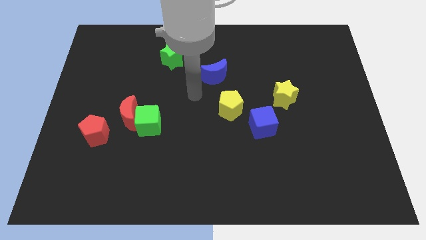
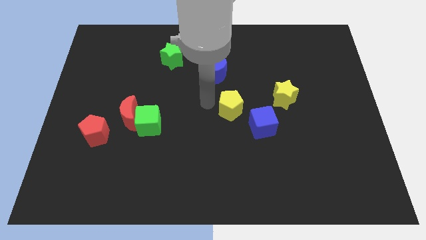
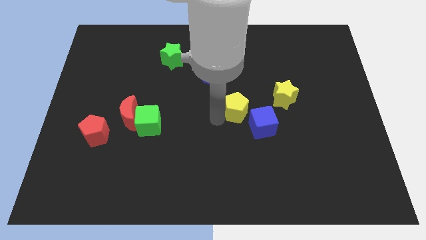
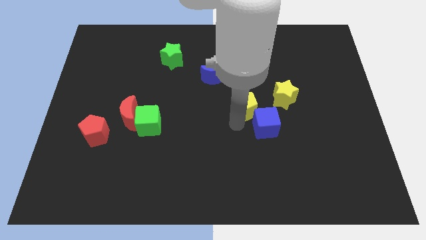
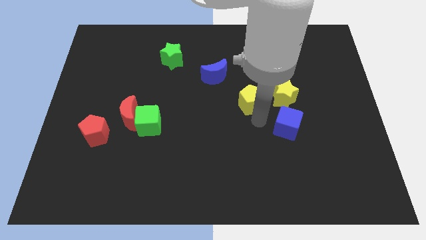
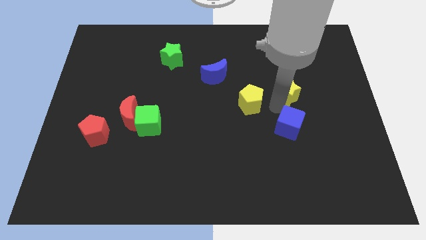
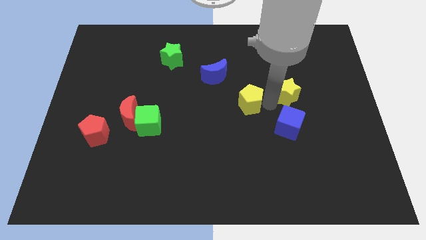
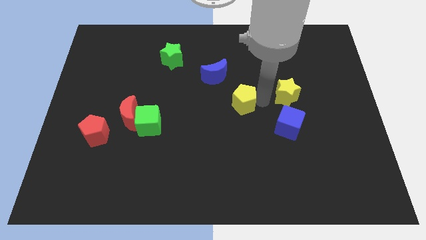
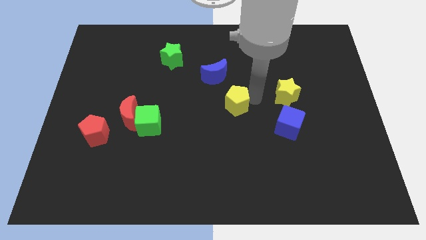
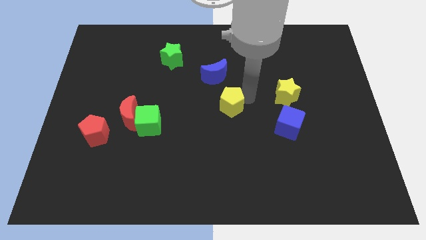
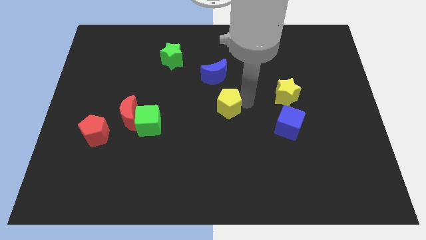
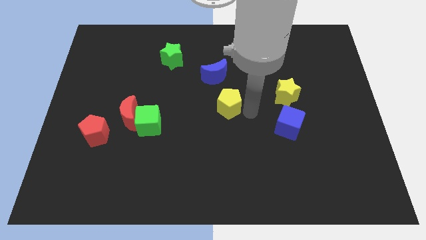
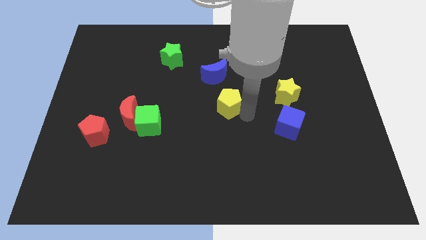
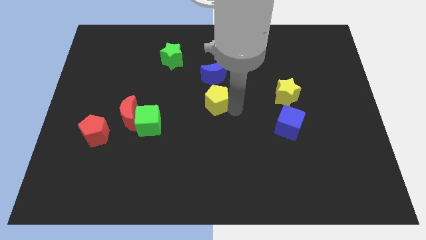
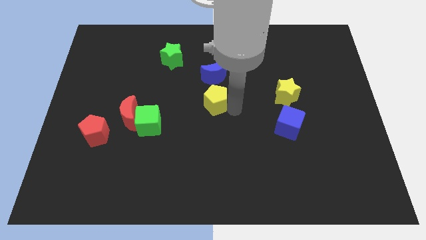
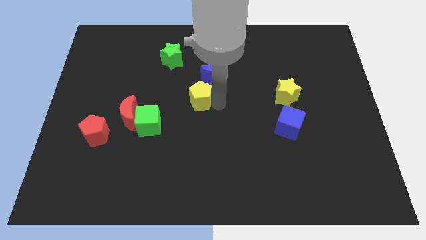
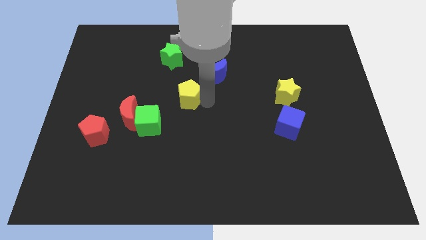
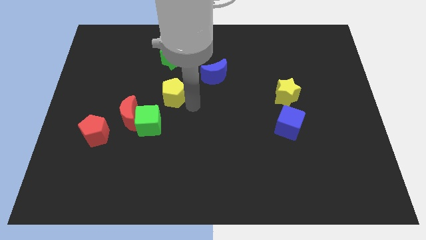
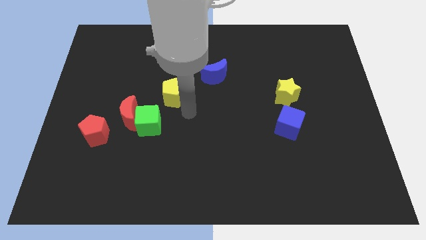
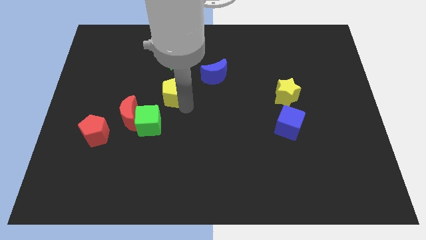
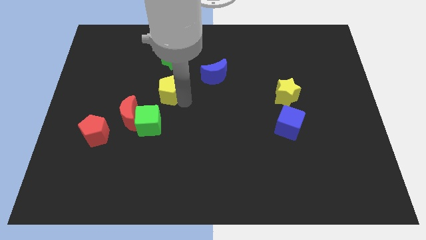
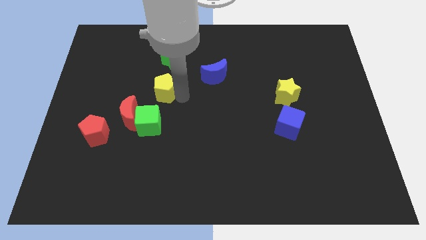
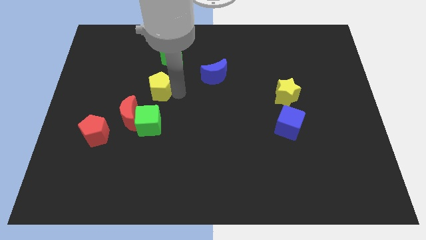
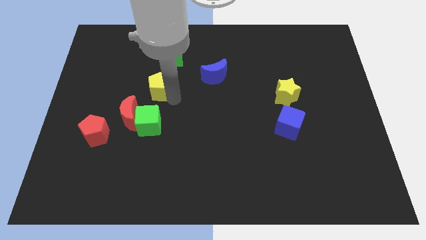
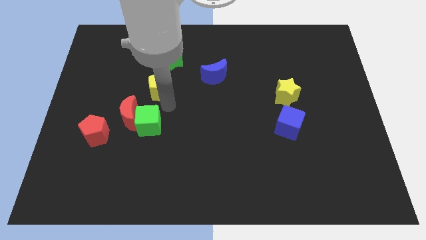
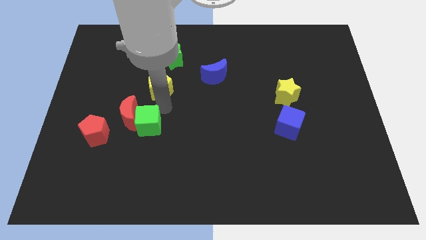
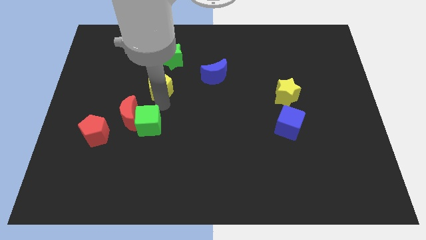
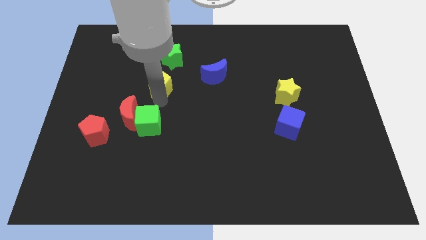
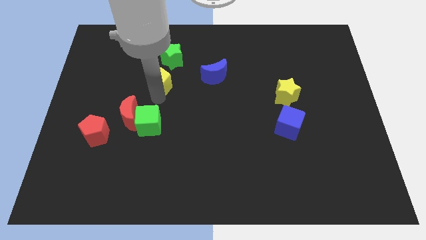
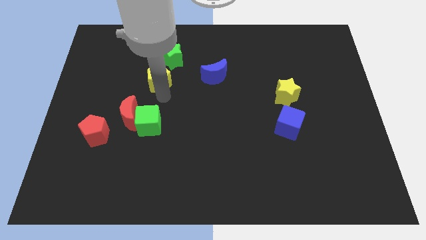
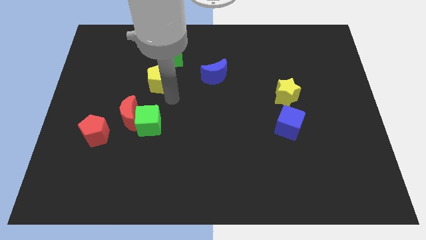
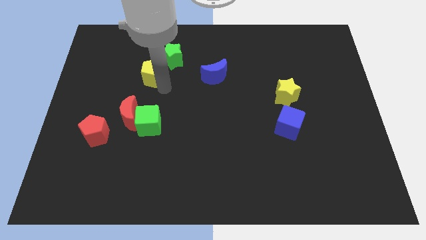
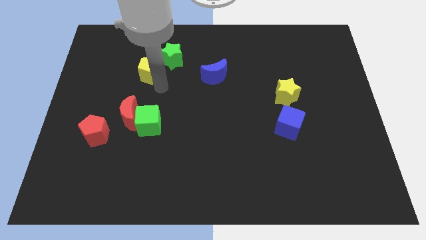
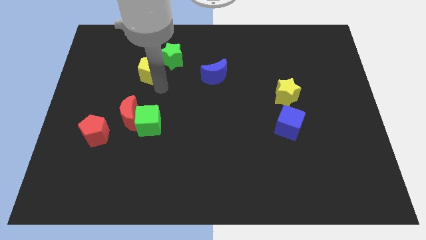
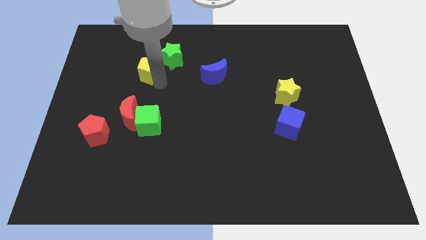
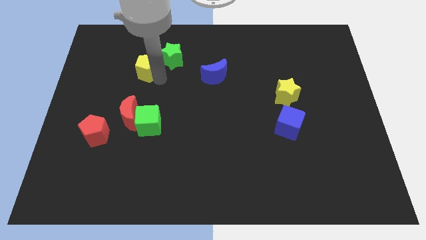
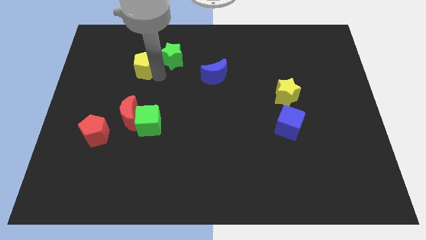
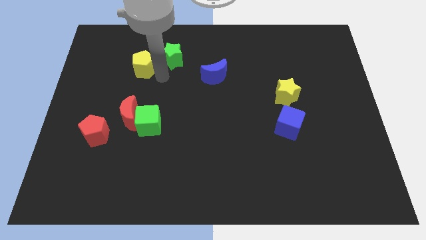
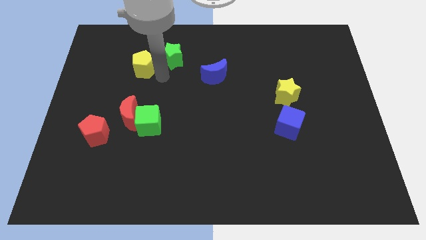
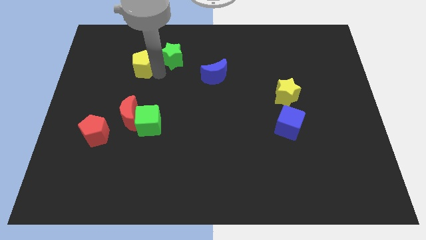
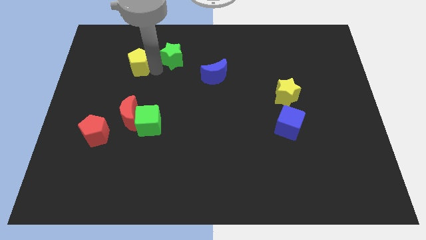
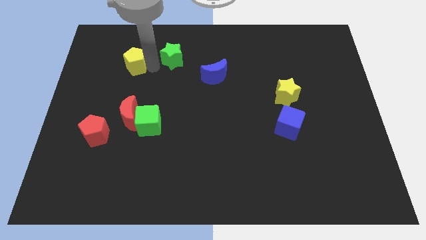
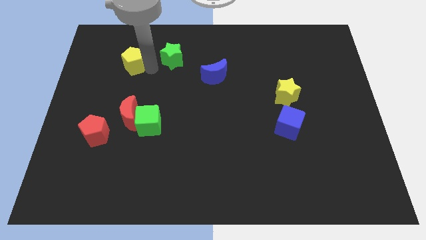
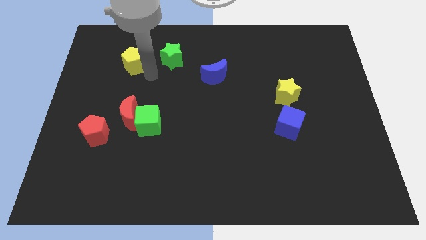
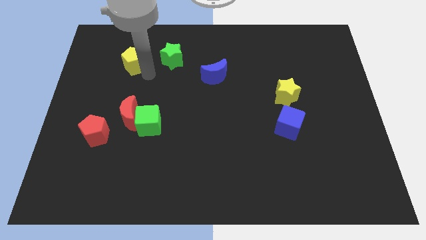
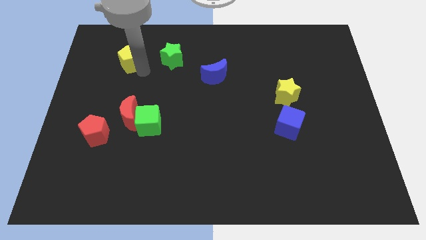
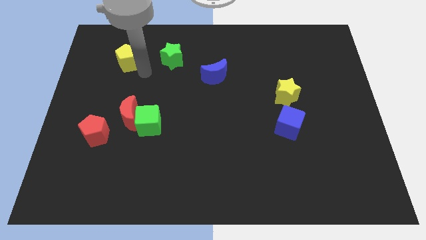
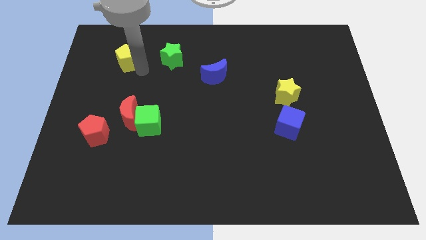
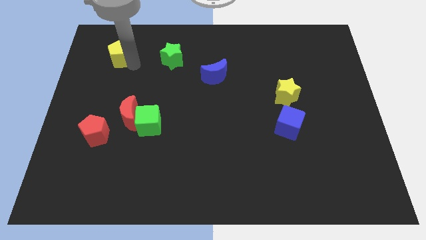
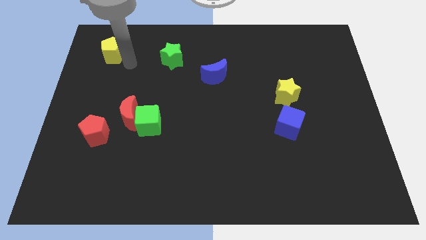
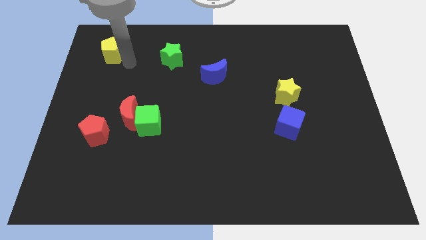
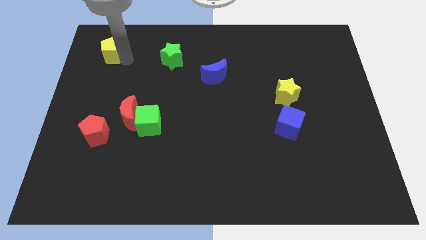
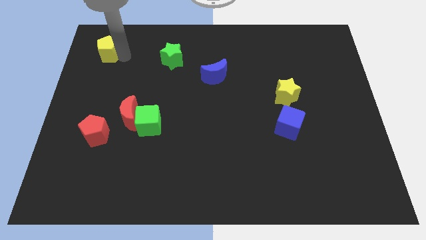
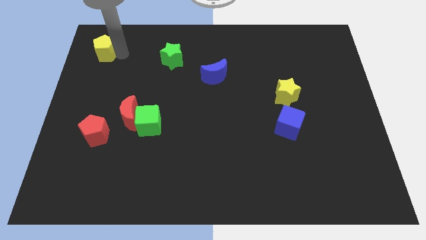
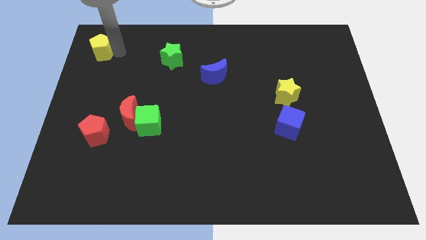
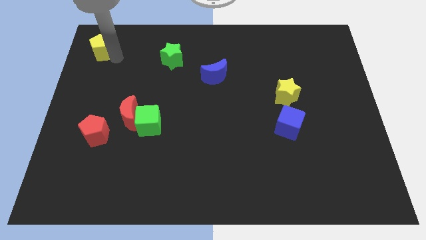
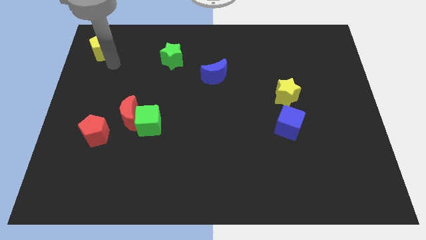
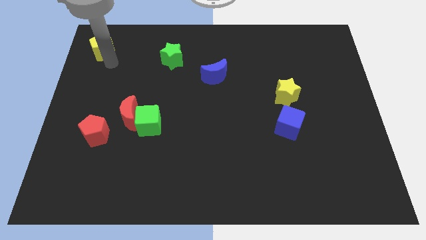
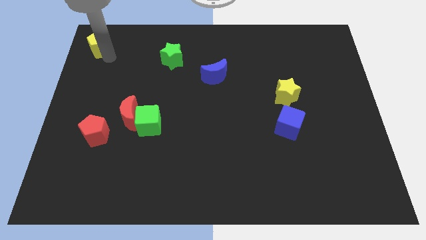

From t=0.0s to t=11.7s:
slide the yellow pentagon to the upper left corner

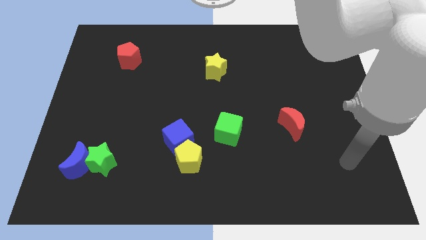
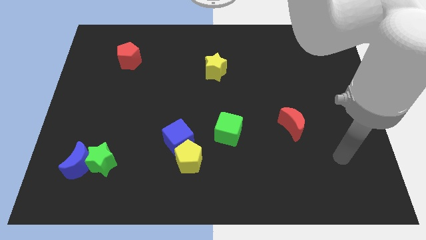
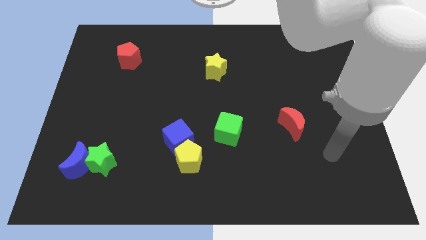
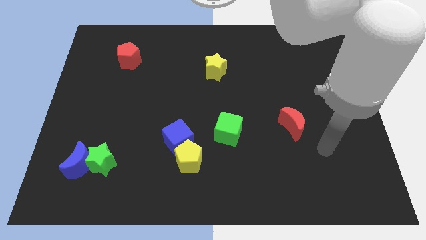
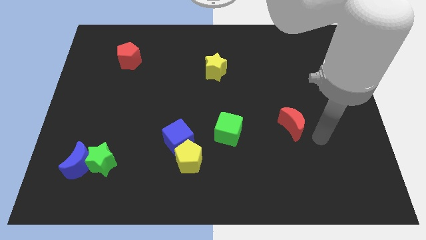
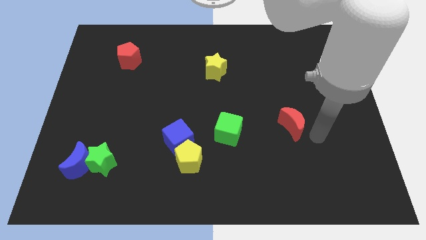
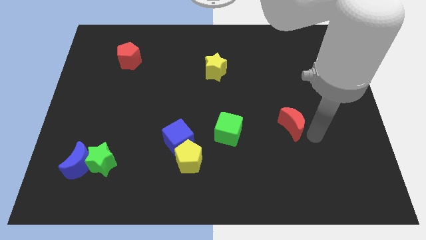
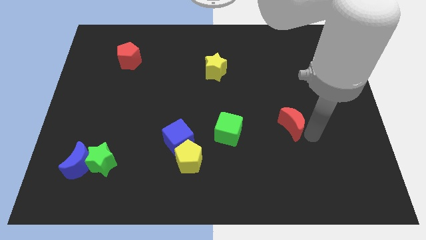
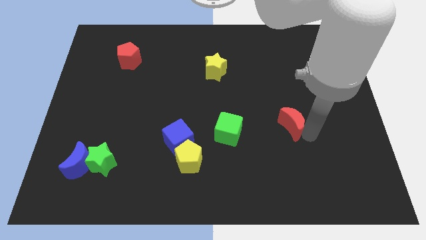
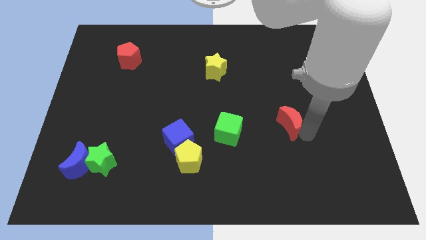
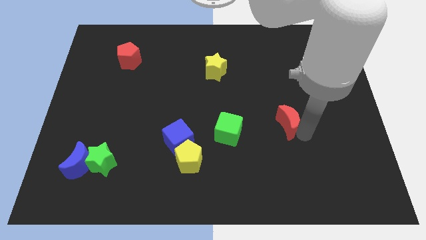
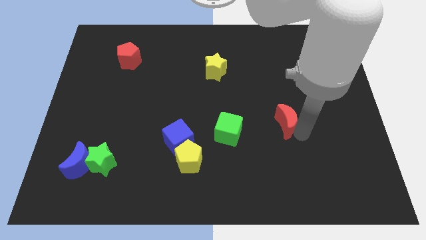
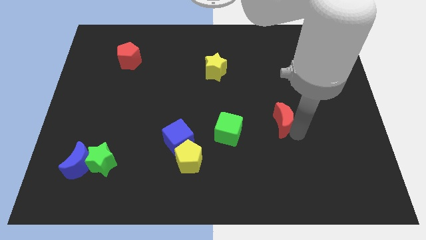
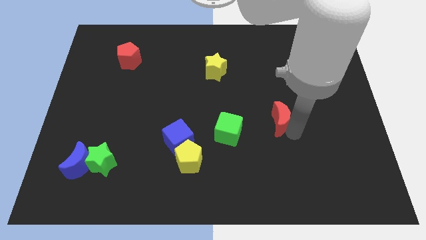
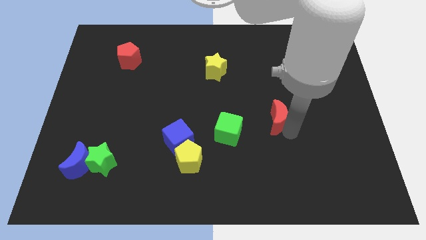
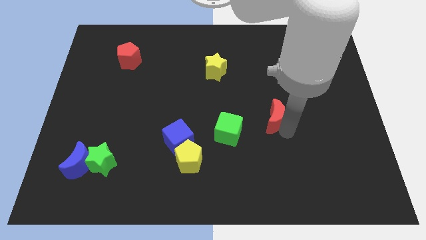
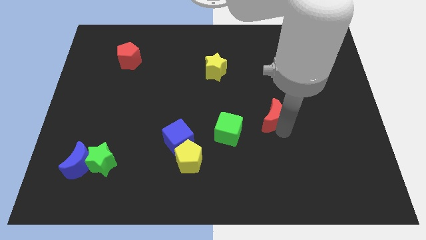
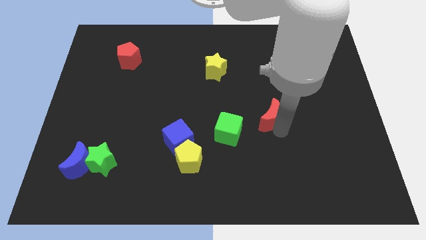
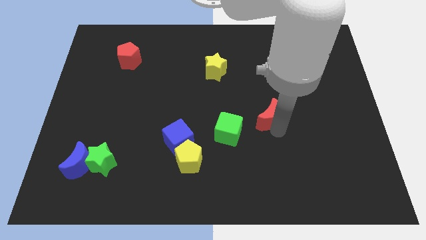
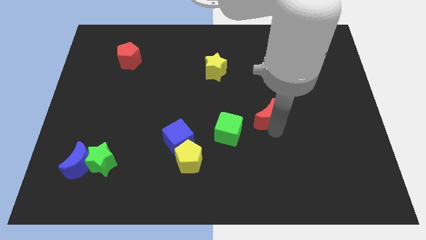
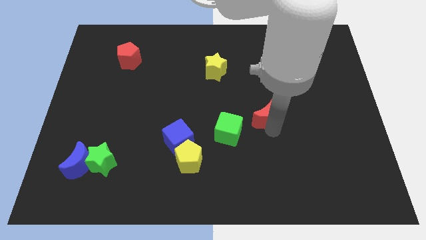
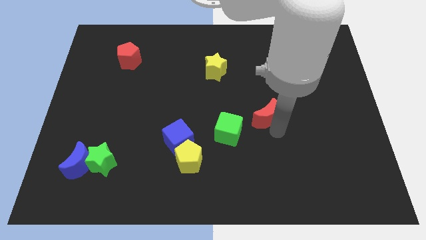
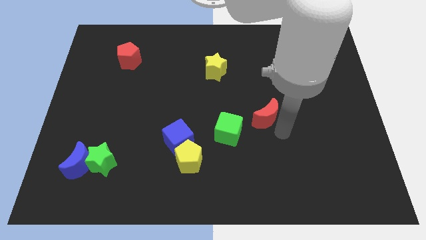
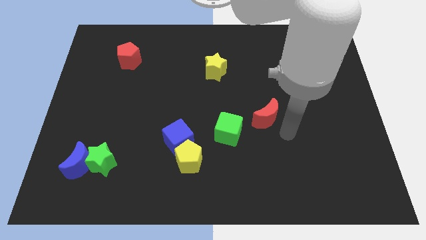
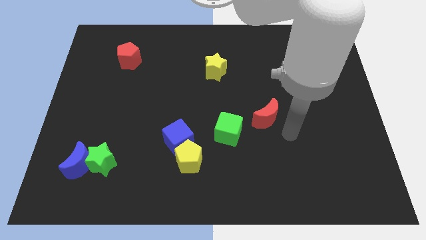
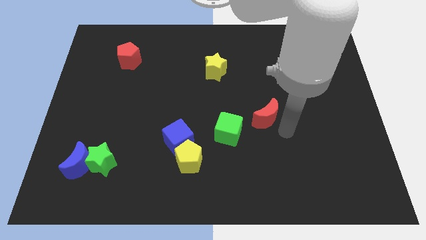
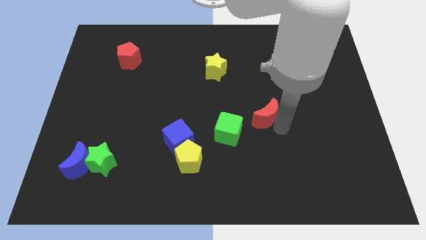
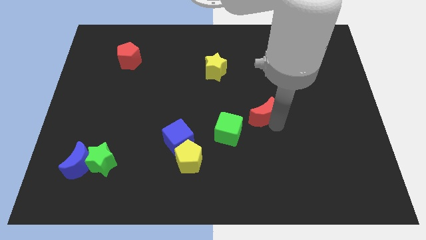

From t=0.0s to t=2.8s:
move the red moon to the middle of the board
